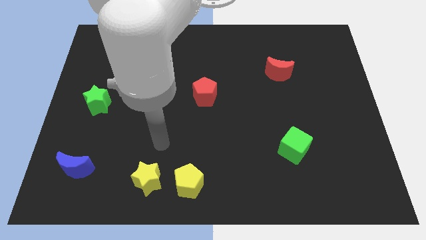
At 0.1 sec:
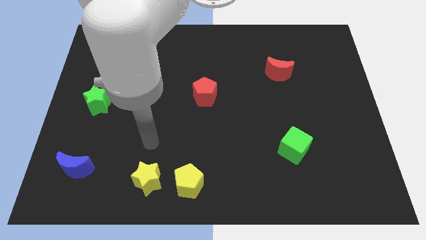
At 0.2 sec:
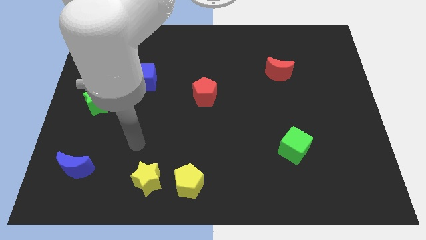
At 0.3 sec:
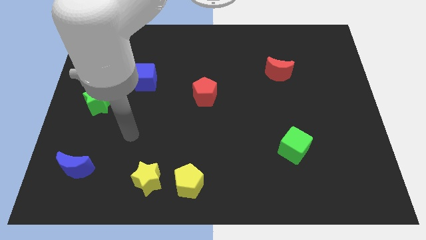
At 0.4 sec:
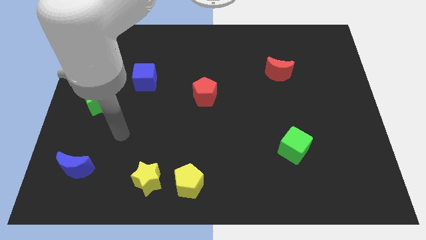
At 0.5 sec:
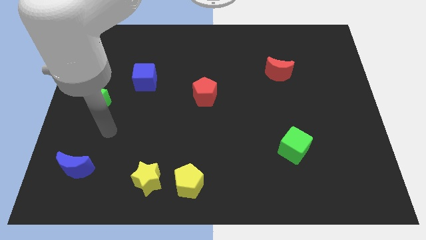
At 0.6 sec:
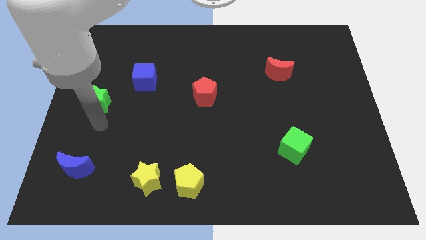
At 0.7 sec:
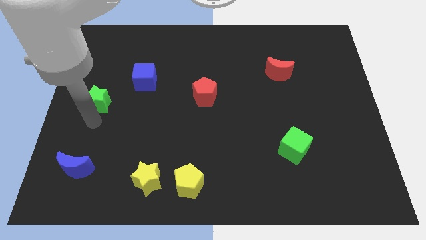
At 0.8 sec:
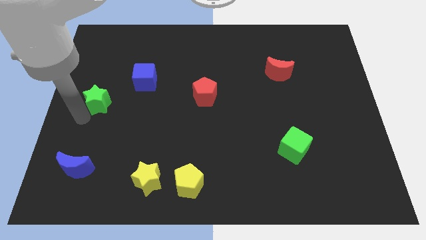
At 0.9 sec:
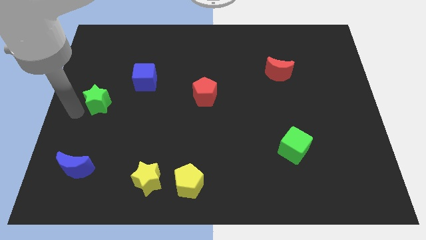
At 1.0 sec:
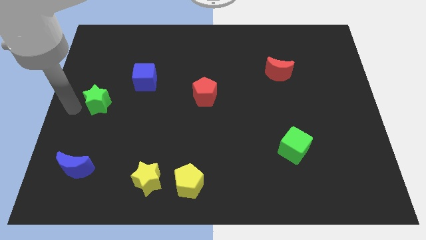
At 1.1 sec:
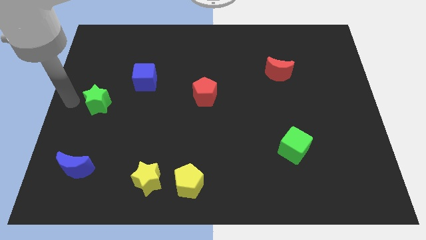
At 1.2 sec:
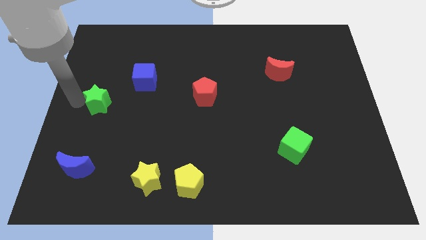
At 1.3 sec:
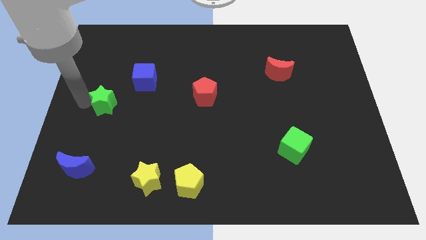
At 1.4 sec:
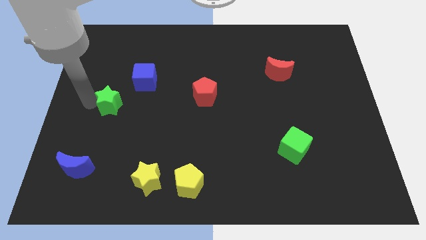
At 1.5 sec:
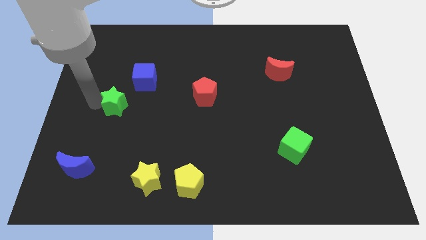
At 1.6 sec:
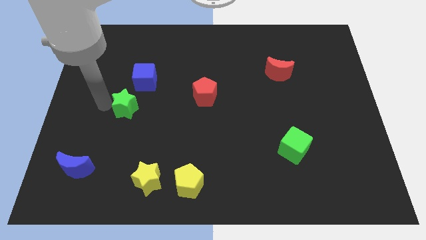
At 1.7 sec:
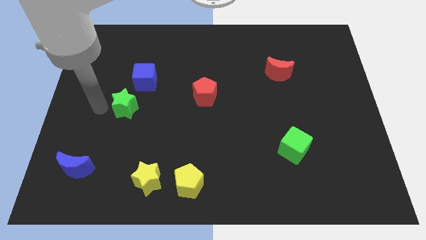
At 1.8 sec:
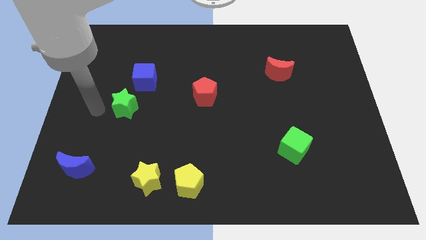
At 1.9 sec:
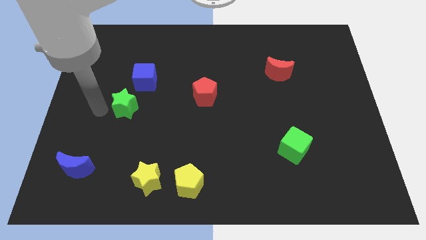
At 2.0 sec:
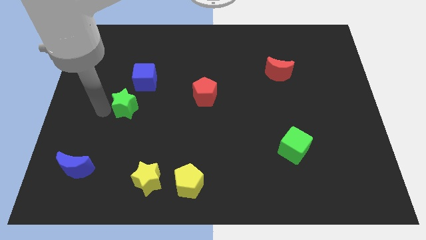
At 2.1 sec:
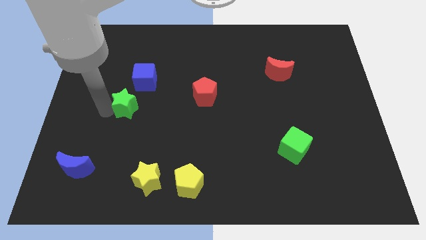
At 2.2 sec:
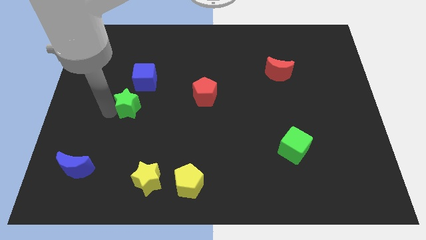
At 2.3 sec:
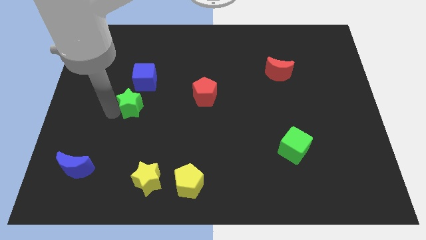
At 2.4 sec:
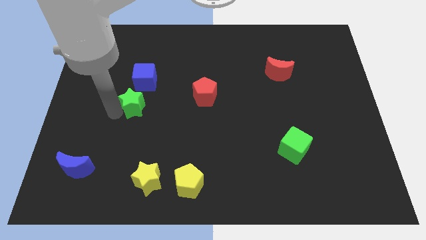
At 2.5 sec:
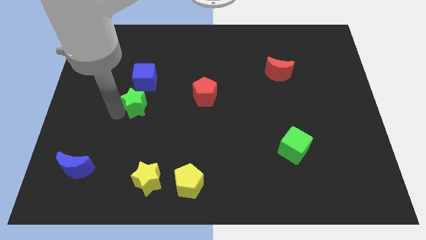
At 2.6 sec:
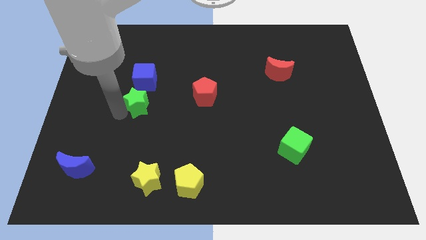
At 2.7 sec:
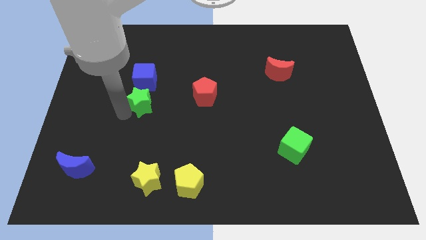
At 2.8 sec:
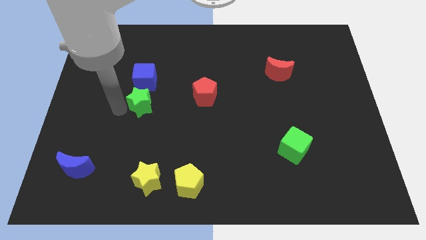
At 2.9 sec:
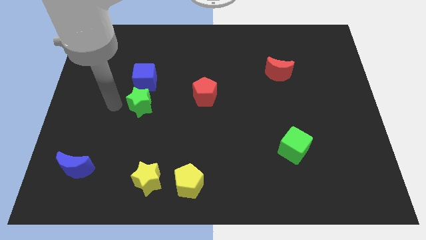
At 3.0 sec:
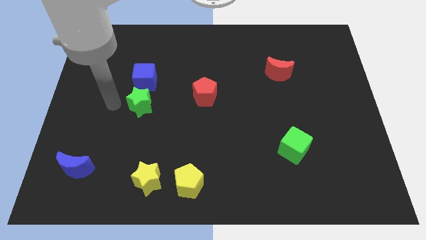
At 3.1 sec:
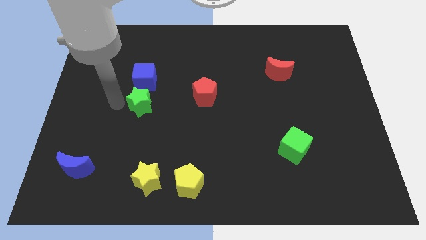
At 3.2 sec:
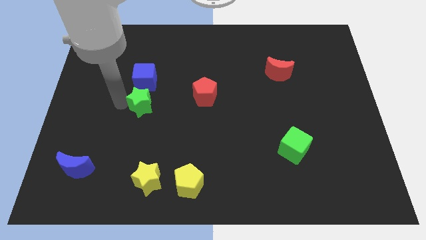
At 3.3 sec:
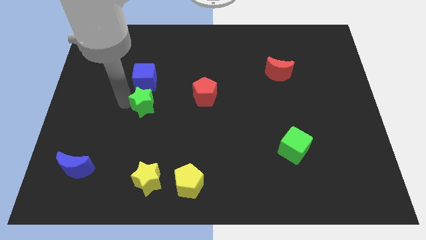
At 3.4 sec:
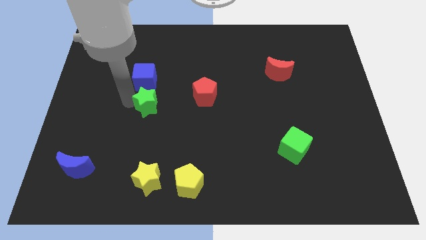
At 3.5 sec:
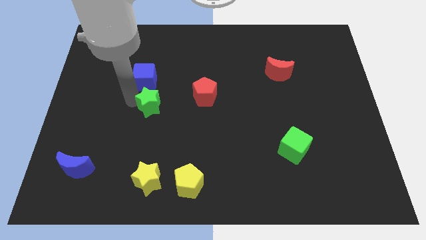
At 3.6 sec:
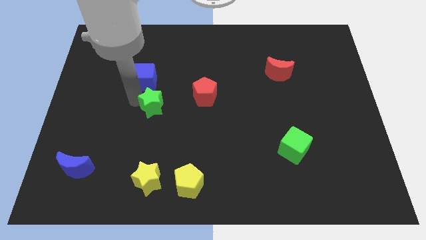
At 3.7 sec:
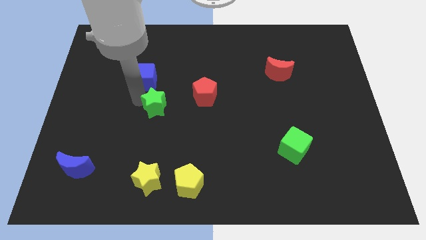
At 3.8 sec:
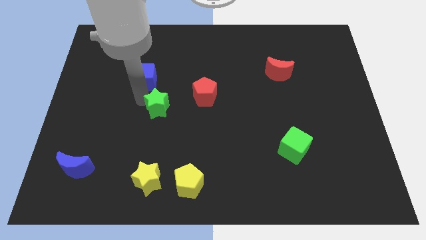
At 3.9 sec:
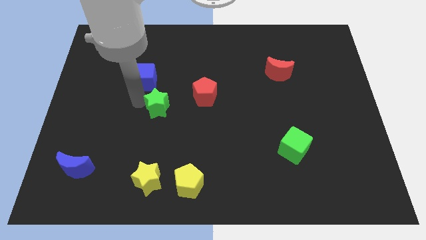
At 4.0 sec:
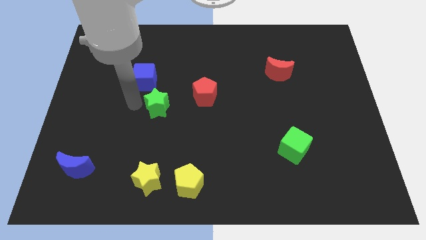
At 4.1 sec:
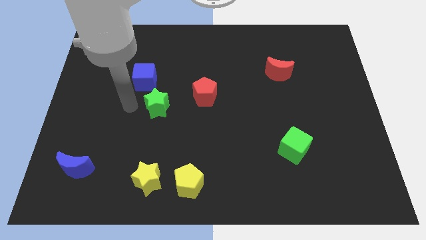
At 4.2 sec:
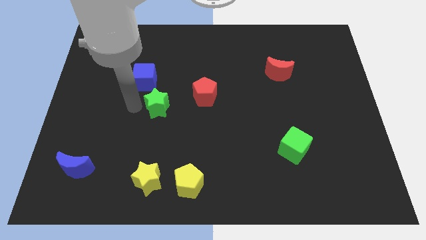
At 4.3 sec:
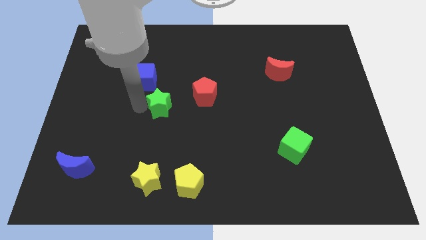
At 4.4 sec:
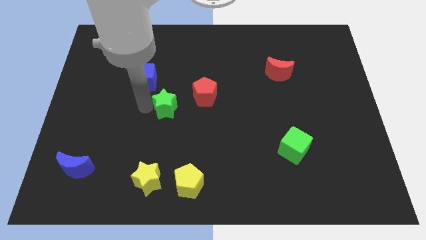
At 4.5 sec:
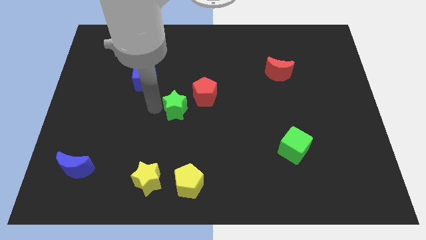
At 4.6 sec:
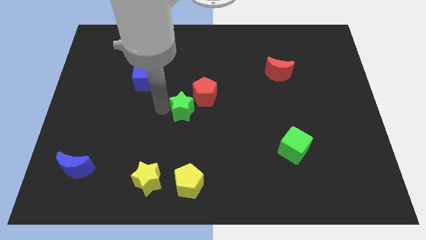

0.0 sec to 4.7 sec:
push the green star right

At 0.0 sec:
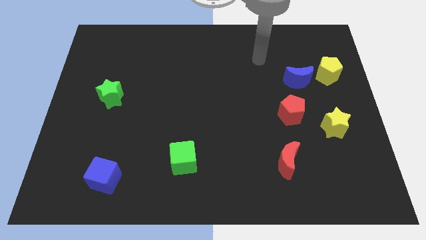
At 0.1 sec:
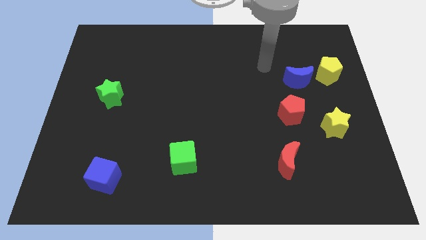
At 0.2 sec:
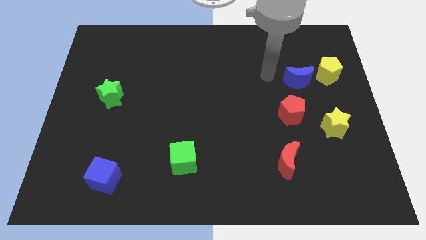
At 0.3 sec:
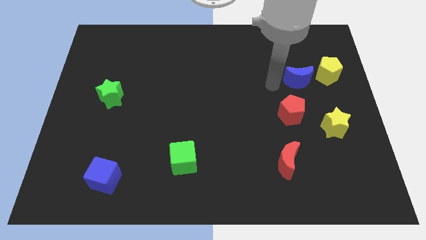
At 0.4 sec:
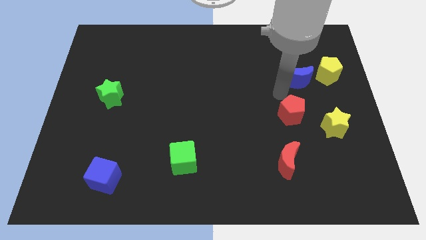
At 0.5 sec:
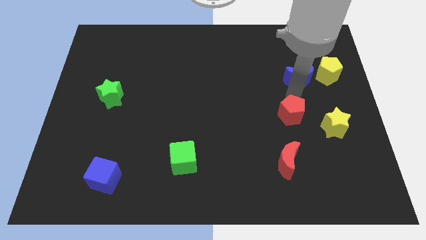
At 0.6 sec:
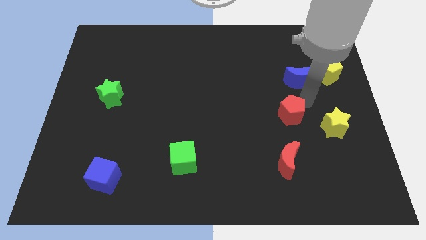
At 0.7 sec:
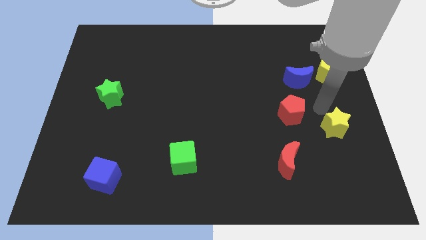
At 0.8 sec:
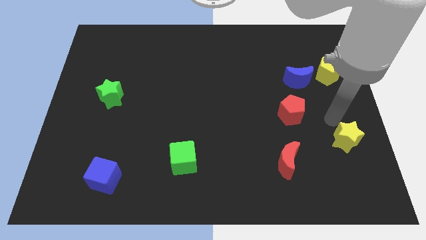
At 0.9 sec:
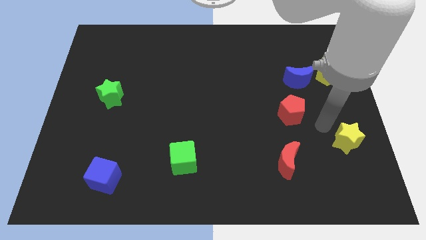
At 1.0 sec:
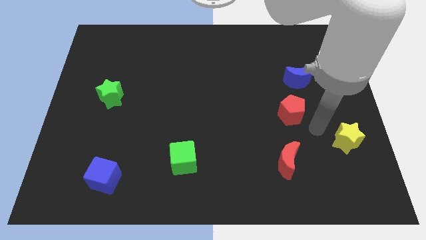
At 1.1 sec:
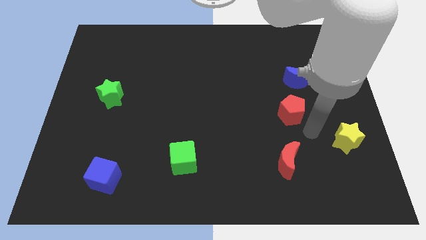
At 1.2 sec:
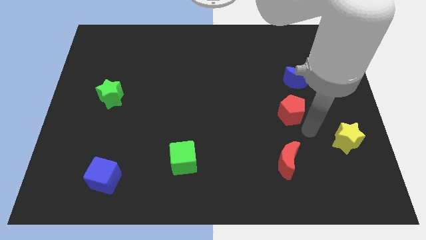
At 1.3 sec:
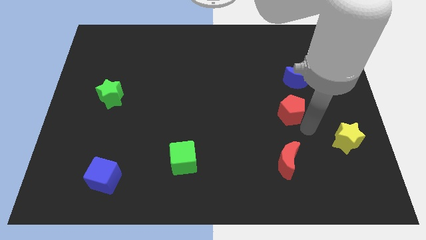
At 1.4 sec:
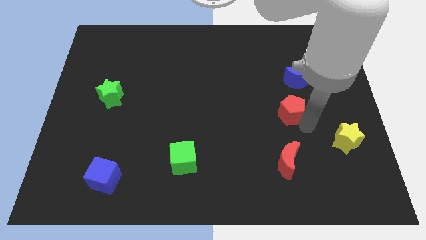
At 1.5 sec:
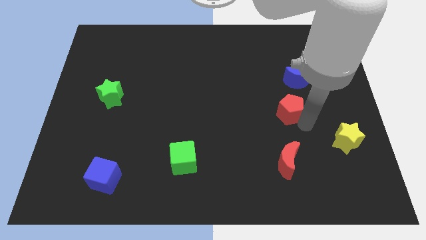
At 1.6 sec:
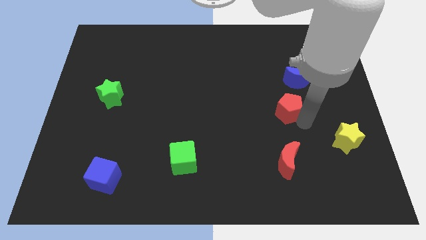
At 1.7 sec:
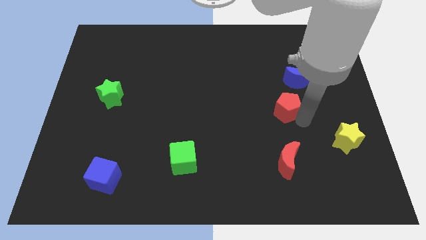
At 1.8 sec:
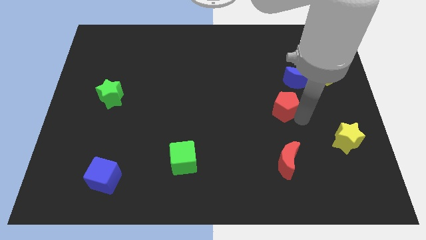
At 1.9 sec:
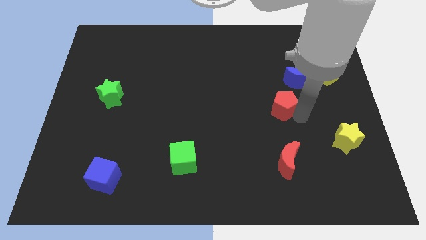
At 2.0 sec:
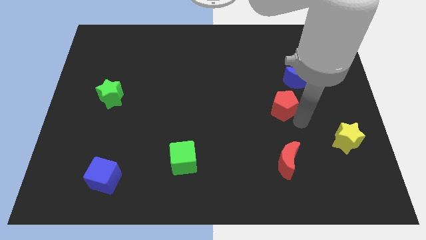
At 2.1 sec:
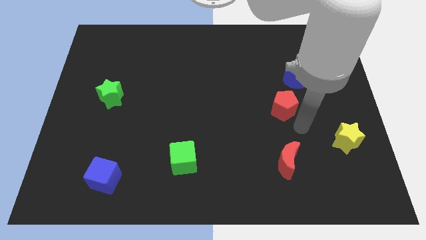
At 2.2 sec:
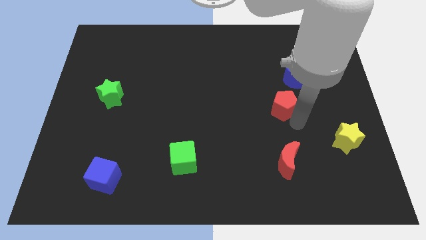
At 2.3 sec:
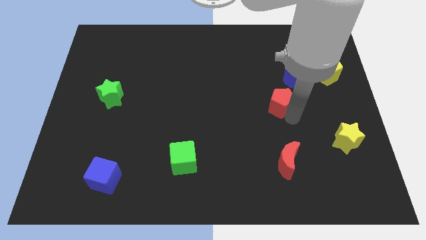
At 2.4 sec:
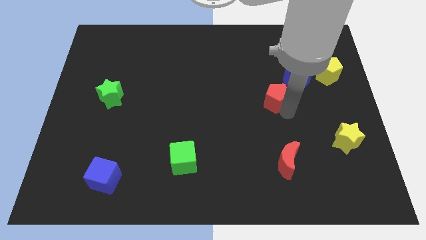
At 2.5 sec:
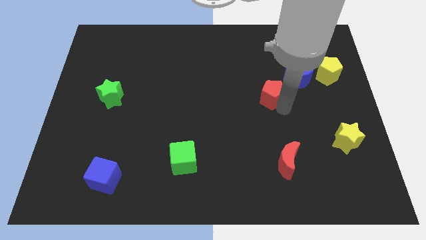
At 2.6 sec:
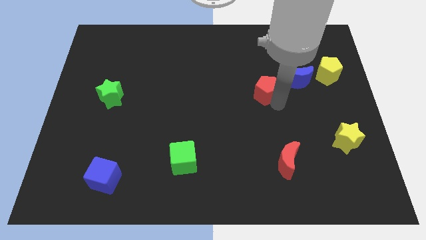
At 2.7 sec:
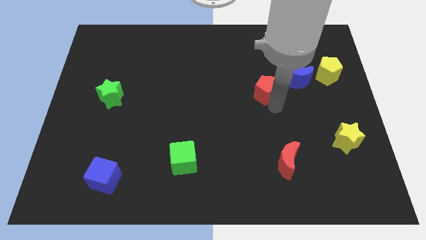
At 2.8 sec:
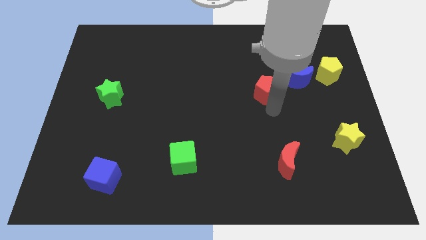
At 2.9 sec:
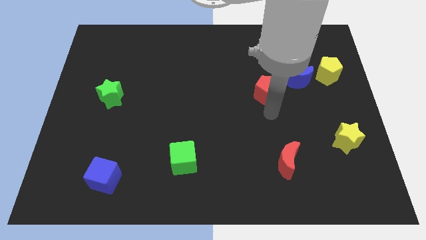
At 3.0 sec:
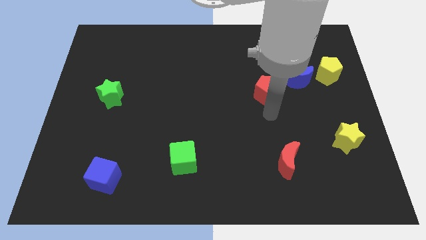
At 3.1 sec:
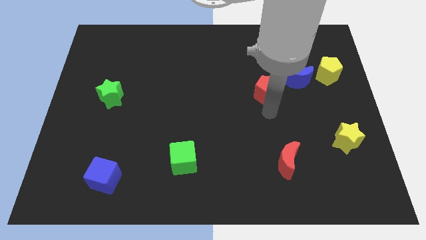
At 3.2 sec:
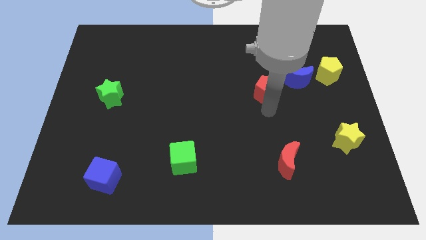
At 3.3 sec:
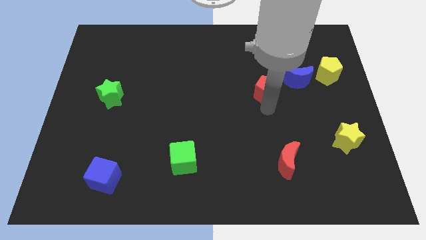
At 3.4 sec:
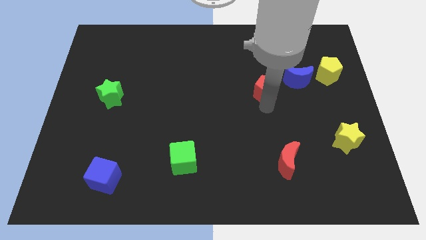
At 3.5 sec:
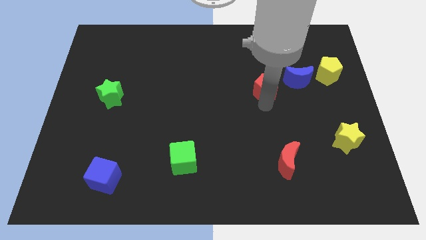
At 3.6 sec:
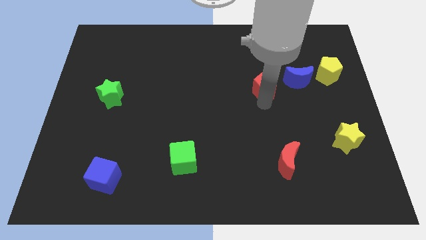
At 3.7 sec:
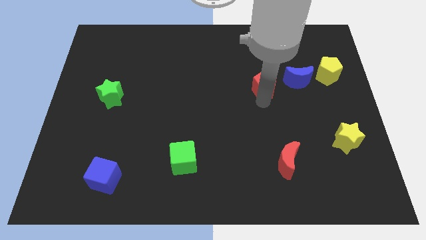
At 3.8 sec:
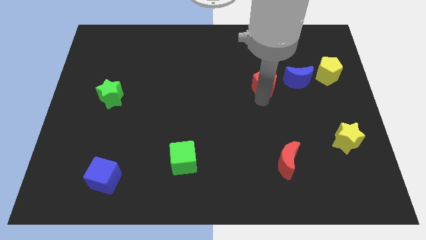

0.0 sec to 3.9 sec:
push the red pentagon a bit up
